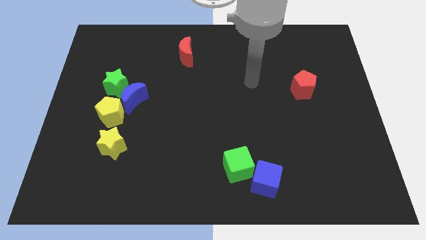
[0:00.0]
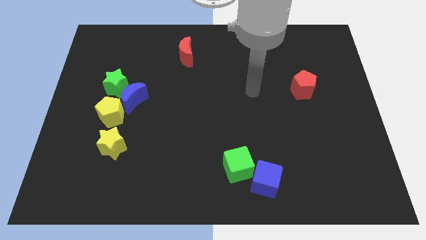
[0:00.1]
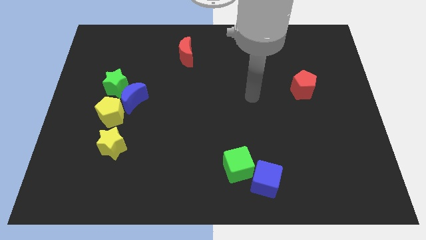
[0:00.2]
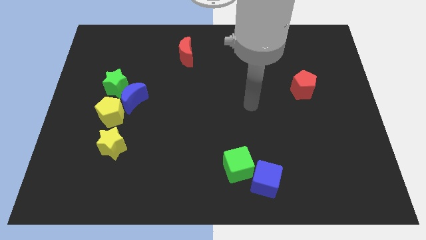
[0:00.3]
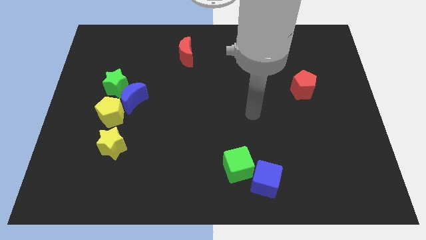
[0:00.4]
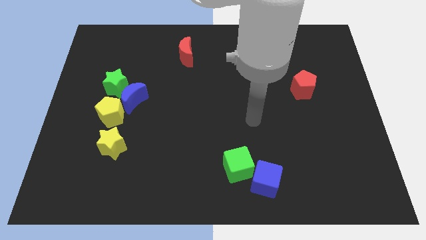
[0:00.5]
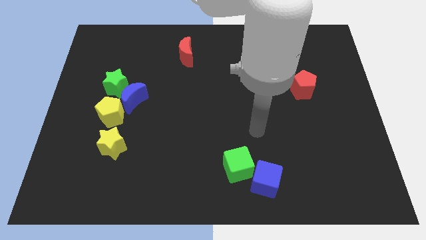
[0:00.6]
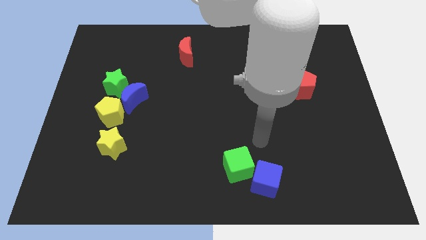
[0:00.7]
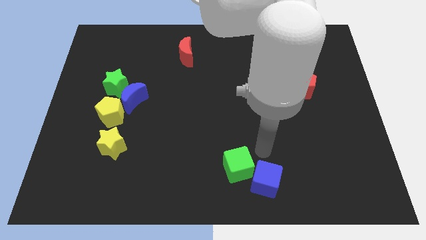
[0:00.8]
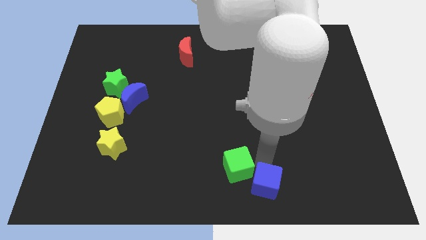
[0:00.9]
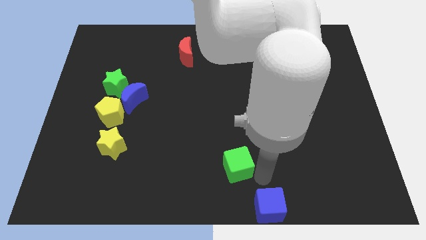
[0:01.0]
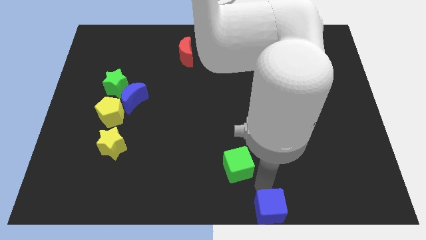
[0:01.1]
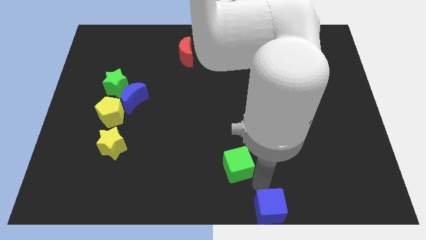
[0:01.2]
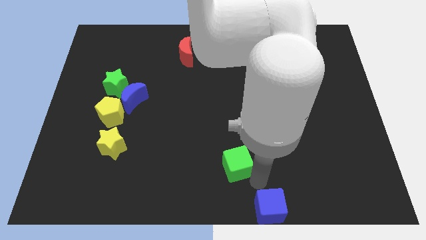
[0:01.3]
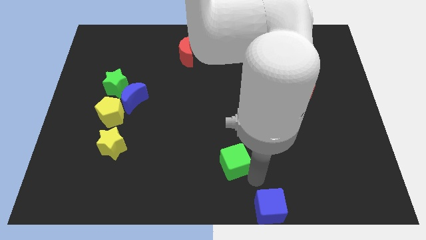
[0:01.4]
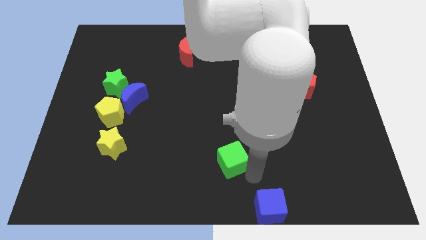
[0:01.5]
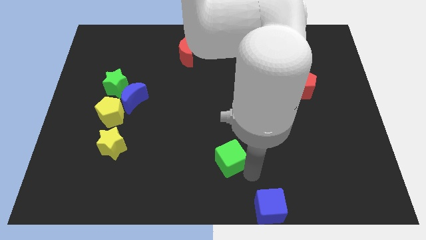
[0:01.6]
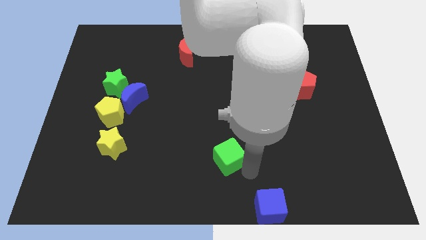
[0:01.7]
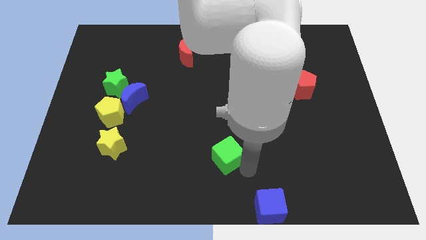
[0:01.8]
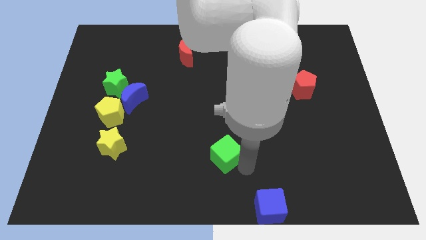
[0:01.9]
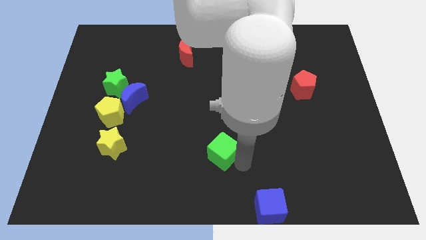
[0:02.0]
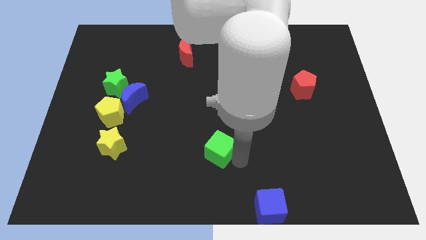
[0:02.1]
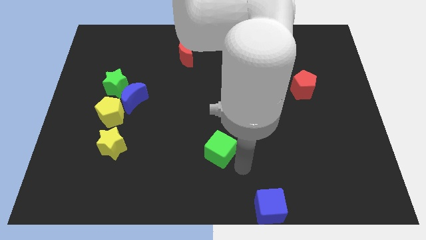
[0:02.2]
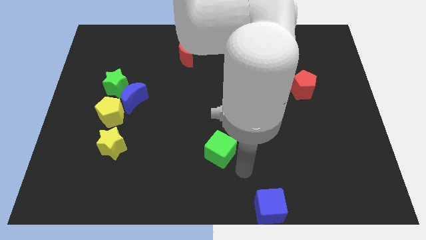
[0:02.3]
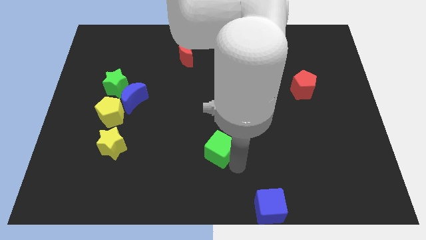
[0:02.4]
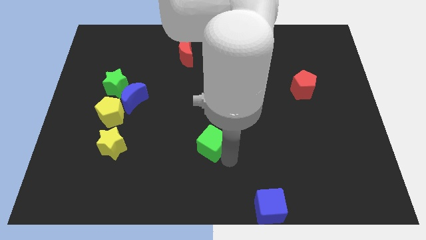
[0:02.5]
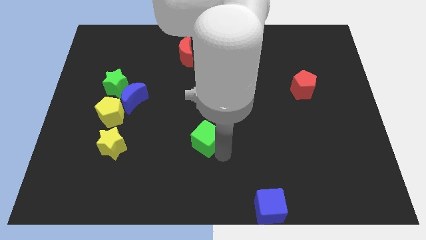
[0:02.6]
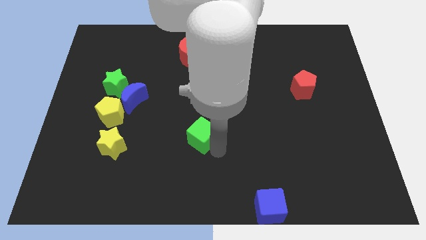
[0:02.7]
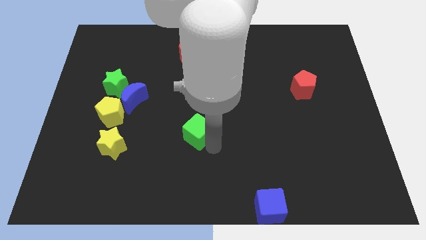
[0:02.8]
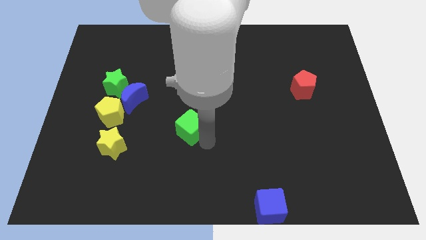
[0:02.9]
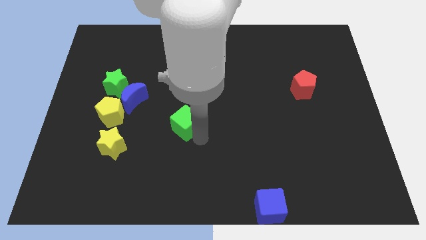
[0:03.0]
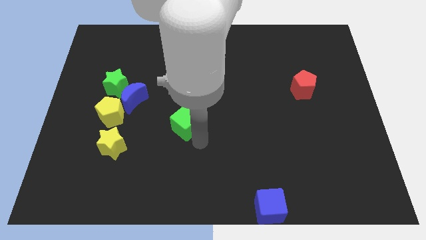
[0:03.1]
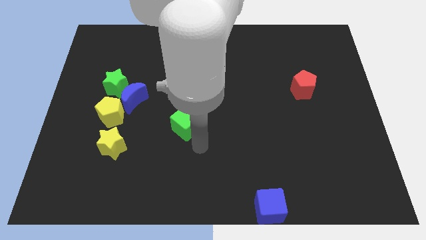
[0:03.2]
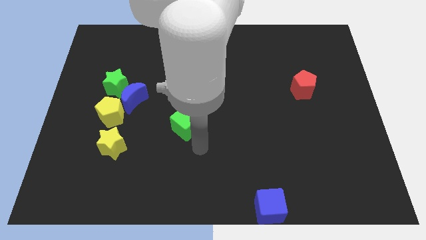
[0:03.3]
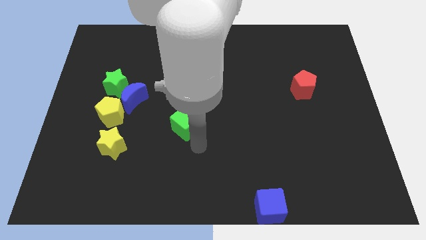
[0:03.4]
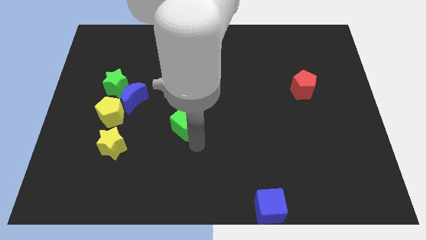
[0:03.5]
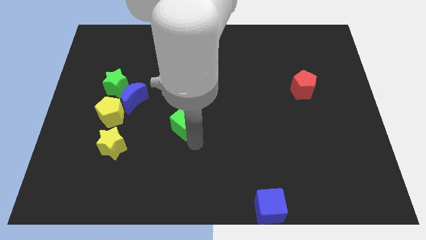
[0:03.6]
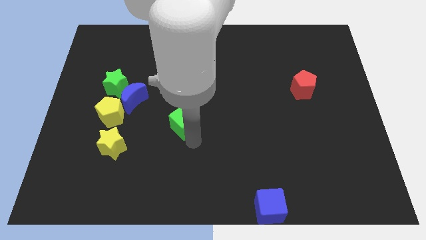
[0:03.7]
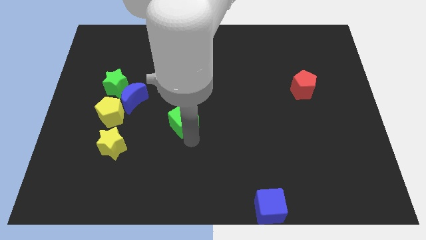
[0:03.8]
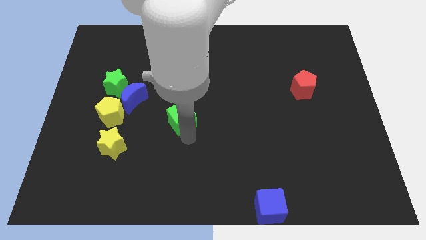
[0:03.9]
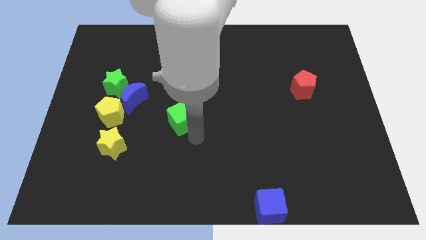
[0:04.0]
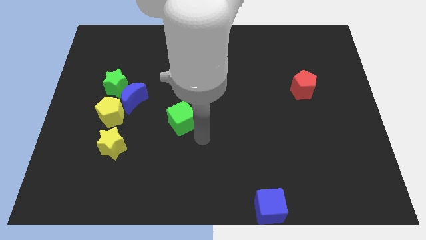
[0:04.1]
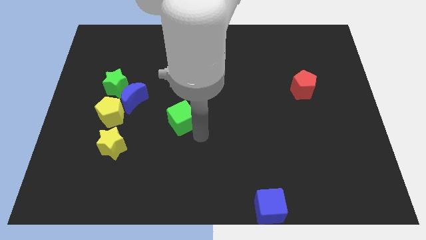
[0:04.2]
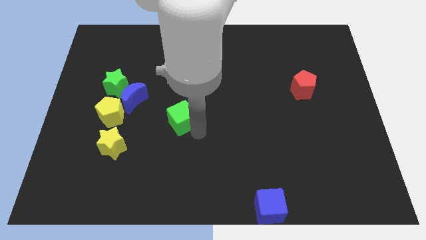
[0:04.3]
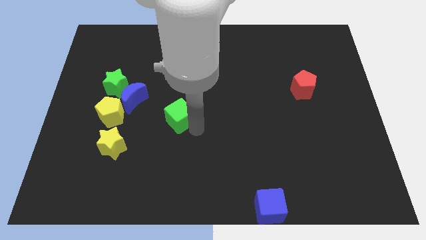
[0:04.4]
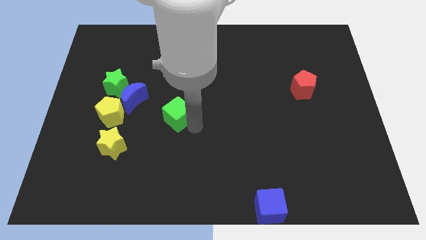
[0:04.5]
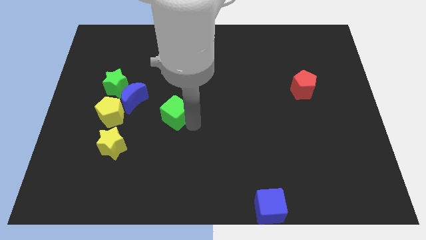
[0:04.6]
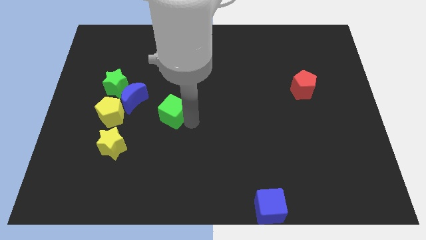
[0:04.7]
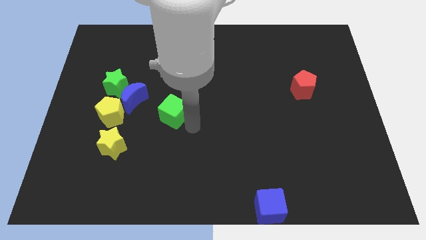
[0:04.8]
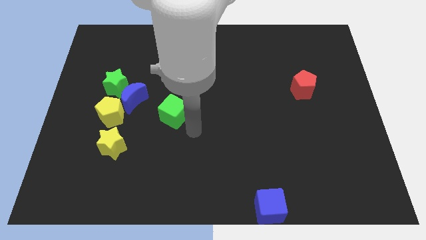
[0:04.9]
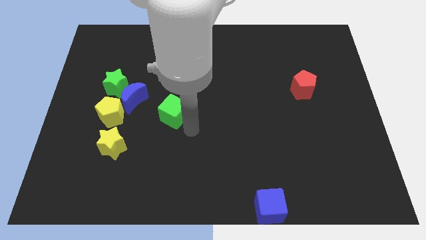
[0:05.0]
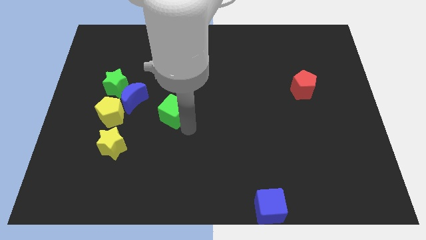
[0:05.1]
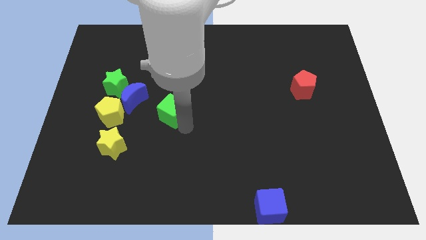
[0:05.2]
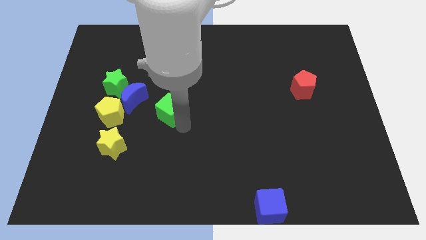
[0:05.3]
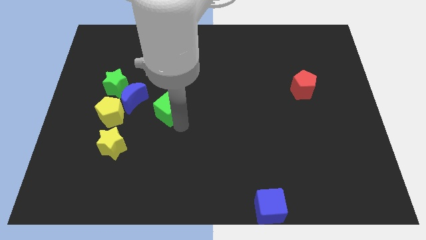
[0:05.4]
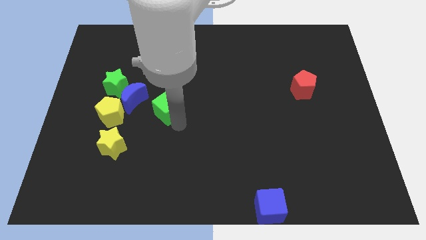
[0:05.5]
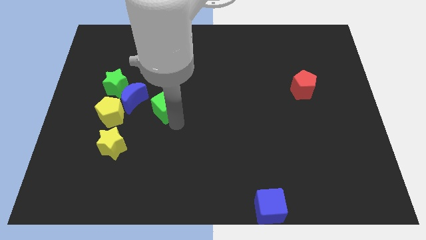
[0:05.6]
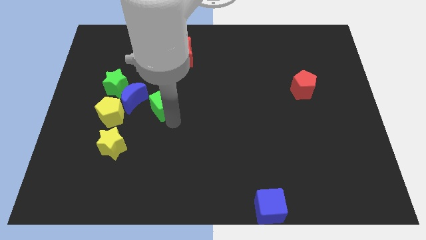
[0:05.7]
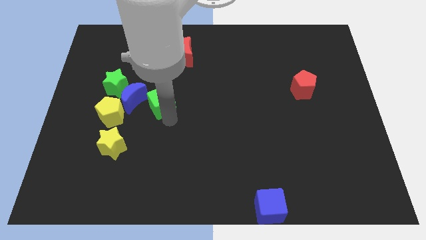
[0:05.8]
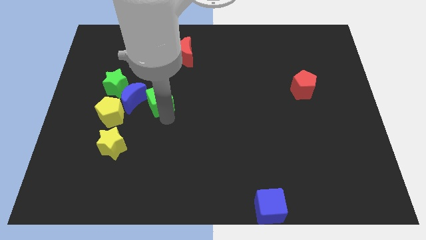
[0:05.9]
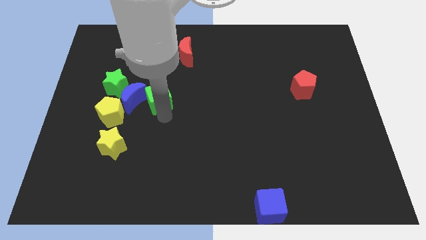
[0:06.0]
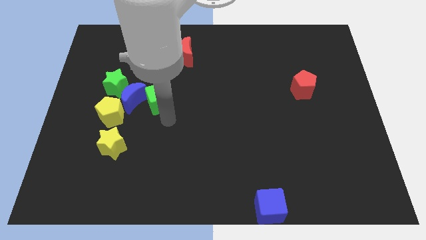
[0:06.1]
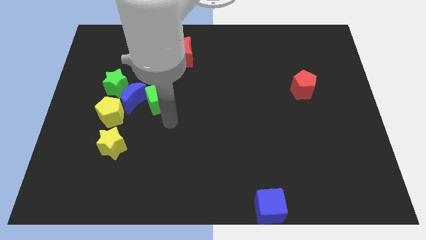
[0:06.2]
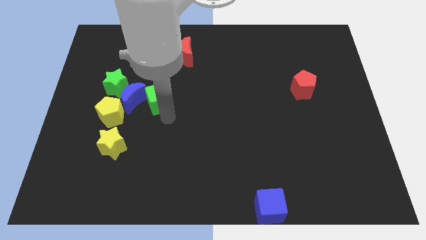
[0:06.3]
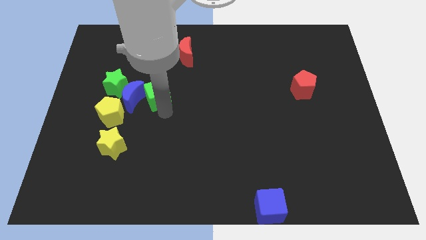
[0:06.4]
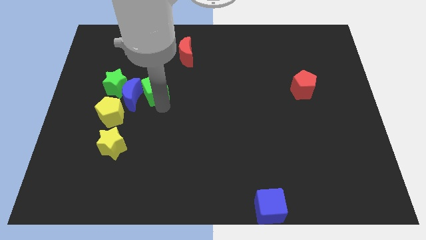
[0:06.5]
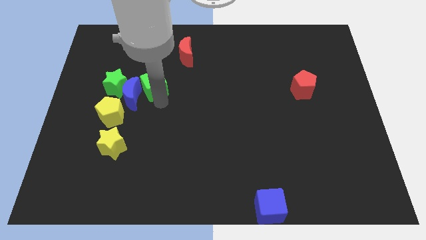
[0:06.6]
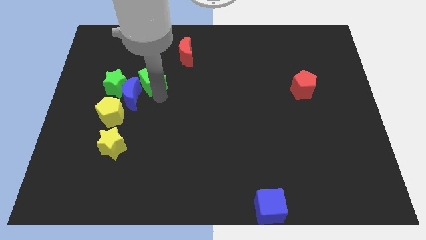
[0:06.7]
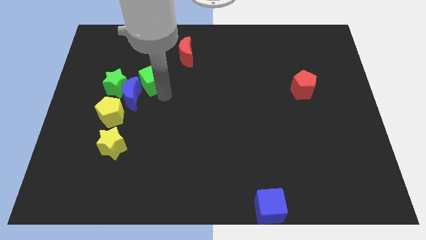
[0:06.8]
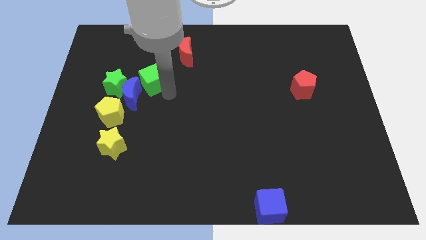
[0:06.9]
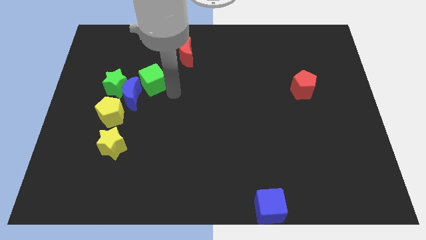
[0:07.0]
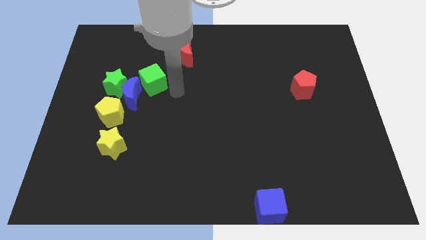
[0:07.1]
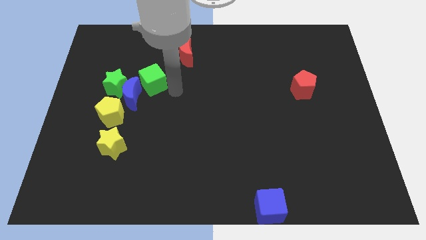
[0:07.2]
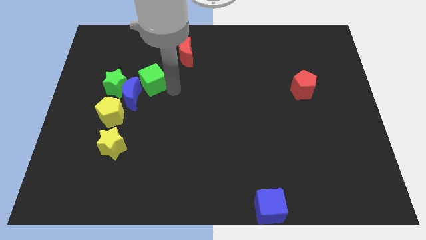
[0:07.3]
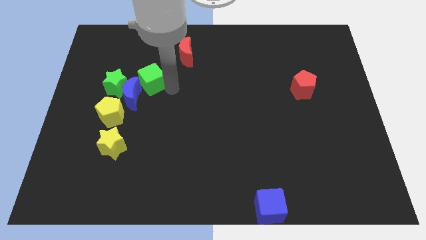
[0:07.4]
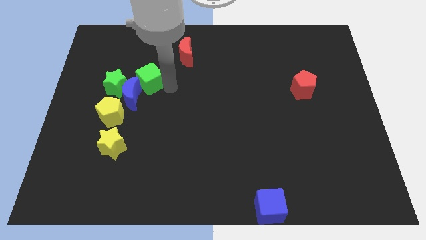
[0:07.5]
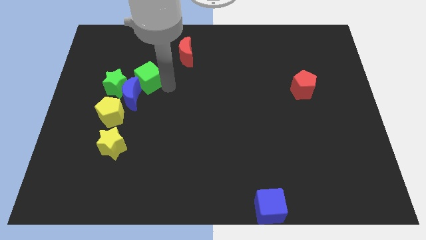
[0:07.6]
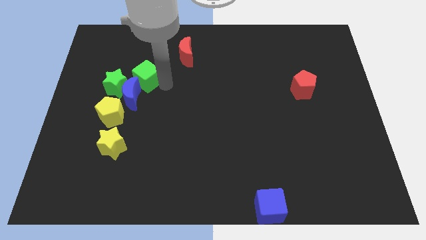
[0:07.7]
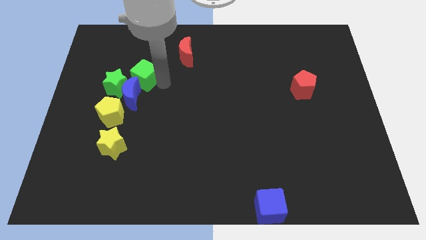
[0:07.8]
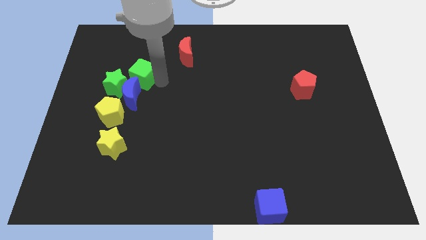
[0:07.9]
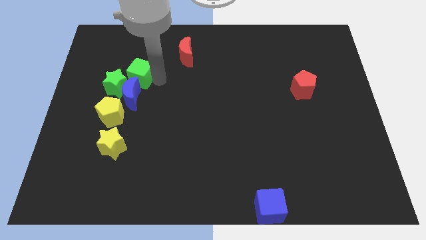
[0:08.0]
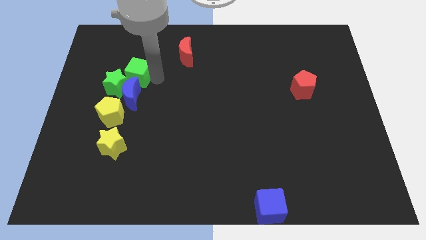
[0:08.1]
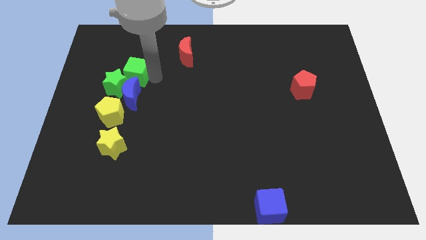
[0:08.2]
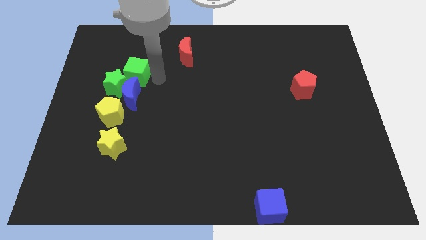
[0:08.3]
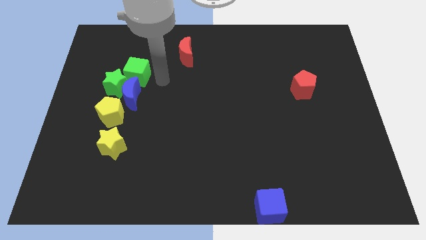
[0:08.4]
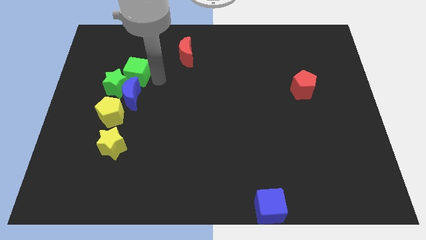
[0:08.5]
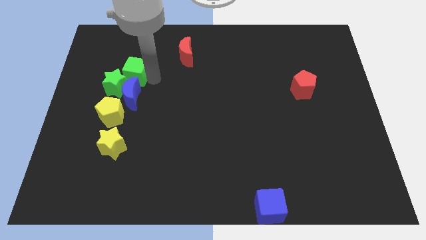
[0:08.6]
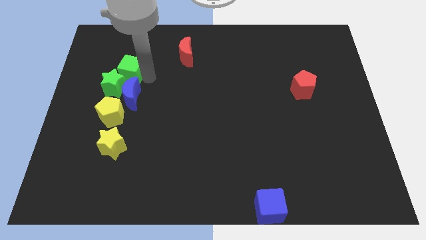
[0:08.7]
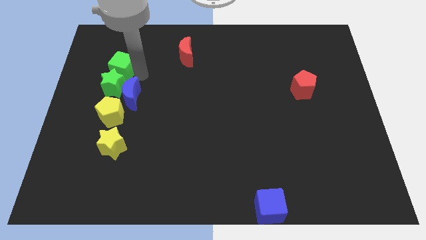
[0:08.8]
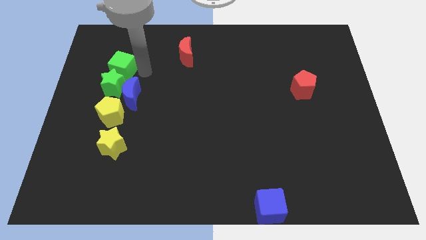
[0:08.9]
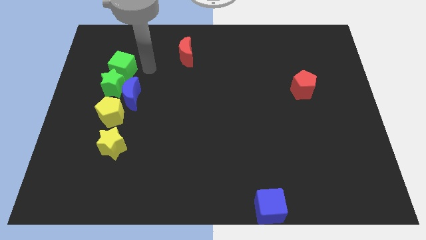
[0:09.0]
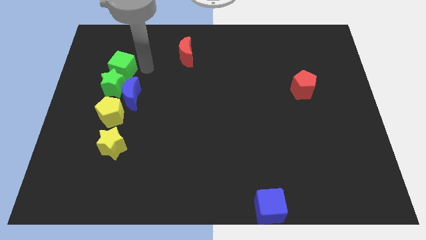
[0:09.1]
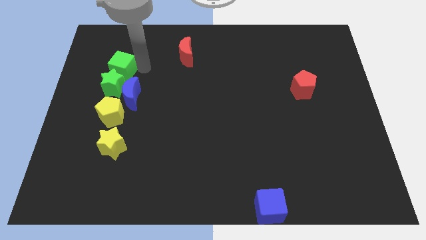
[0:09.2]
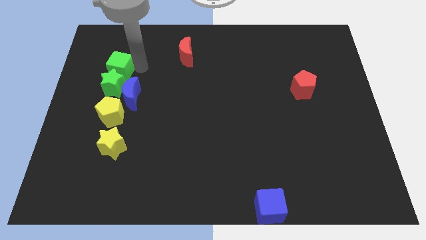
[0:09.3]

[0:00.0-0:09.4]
push the green cube to the top left side of the green star
